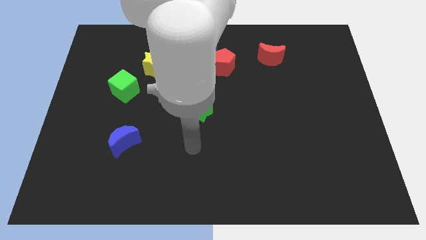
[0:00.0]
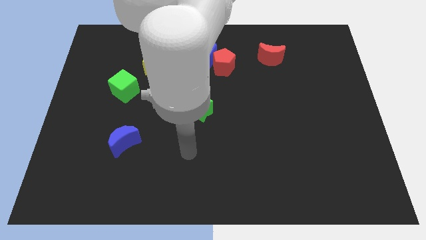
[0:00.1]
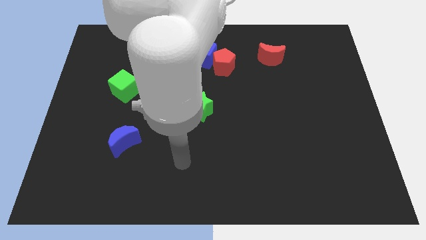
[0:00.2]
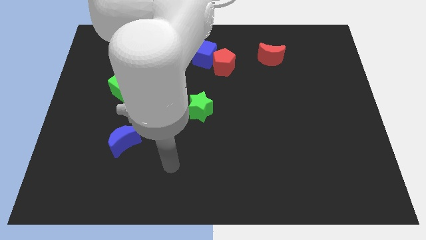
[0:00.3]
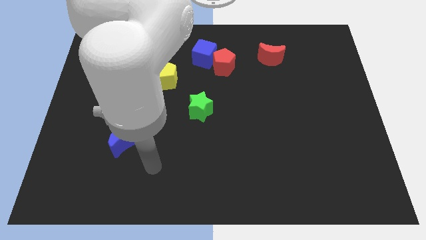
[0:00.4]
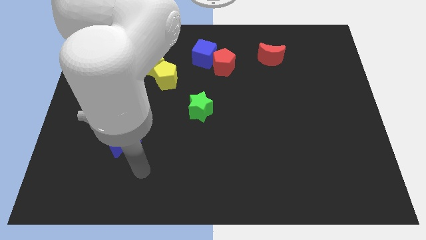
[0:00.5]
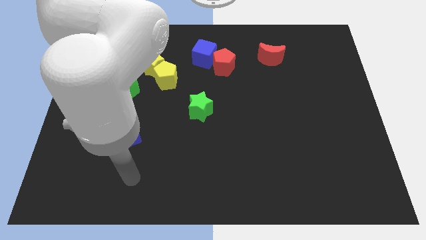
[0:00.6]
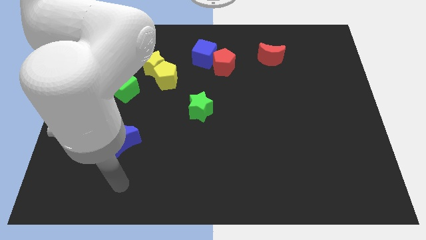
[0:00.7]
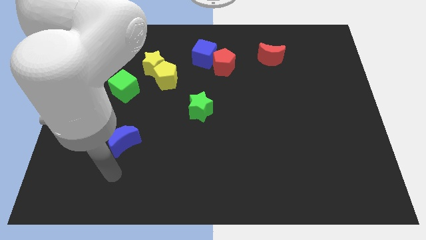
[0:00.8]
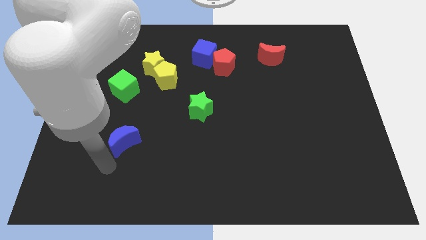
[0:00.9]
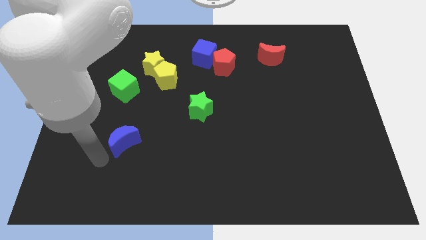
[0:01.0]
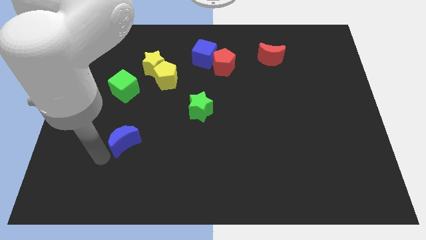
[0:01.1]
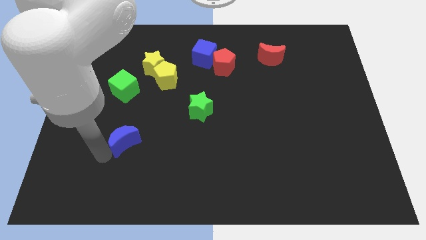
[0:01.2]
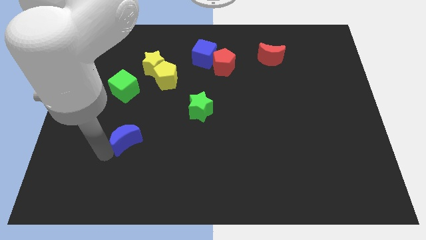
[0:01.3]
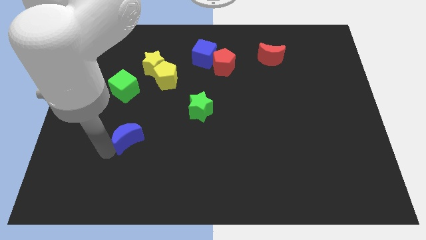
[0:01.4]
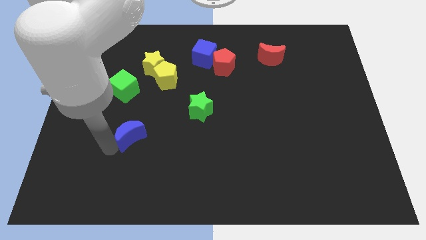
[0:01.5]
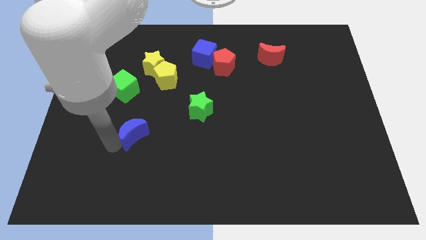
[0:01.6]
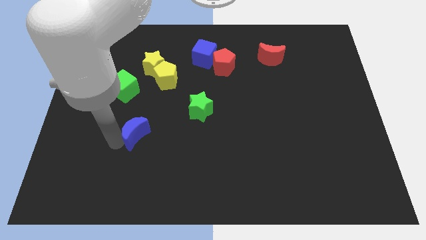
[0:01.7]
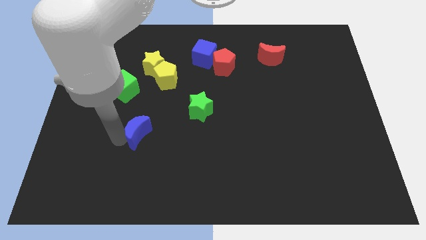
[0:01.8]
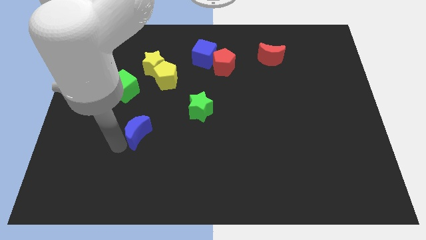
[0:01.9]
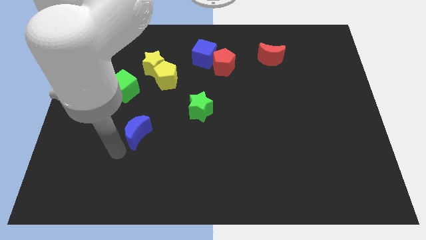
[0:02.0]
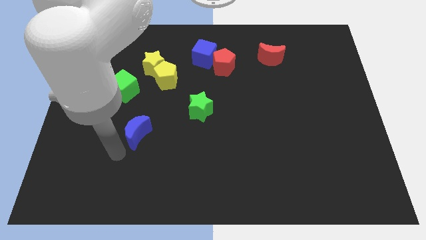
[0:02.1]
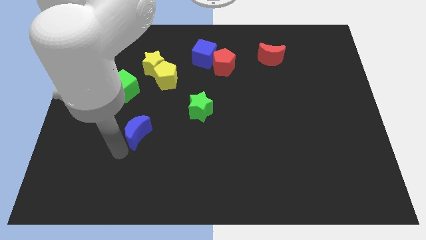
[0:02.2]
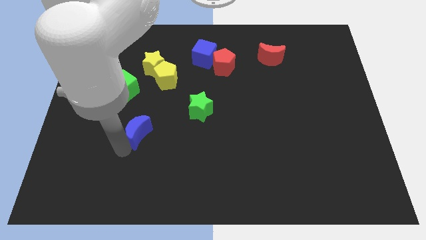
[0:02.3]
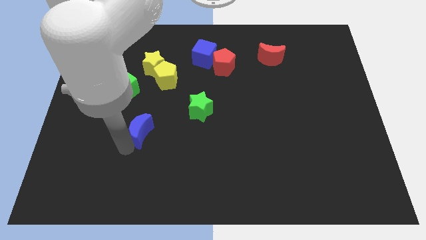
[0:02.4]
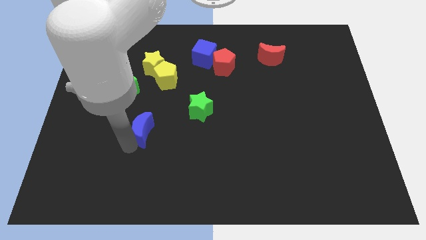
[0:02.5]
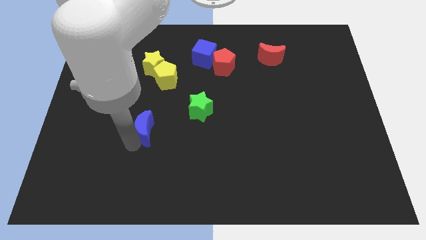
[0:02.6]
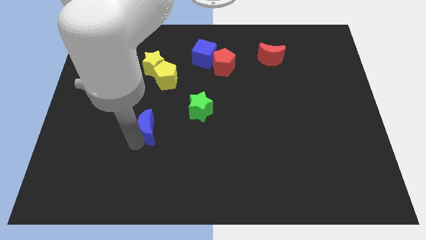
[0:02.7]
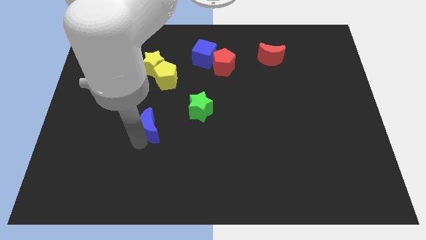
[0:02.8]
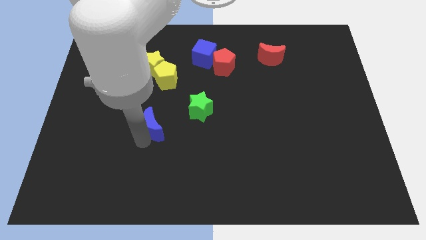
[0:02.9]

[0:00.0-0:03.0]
push the blue moon upwards and then right a bit

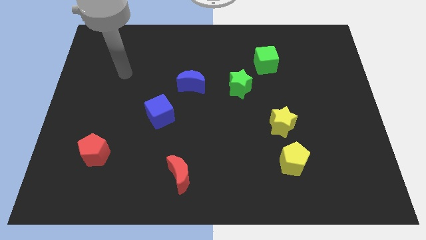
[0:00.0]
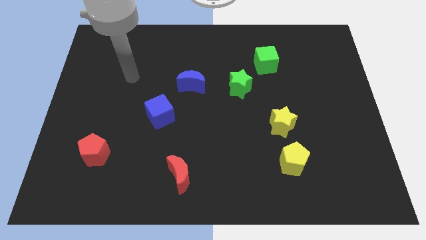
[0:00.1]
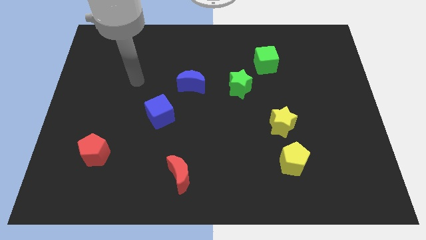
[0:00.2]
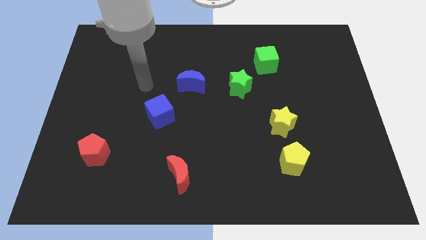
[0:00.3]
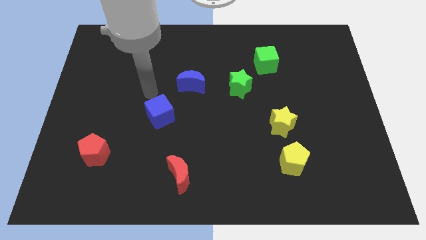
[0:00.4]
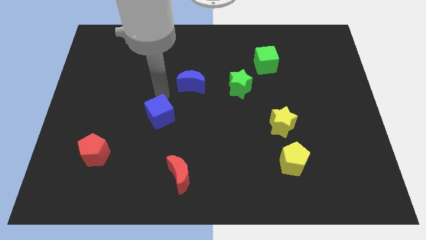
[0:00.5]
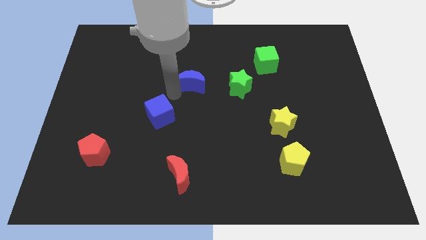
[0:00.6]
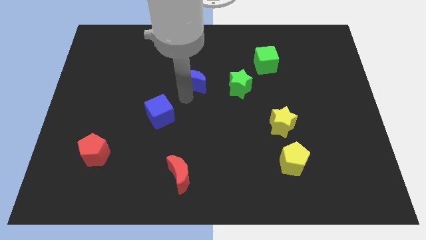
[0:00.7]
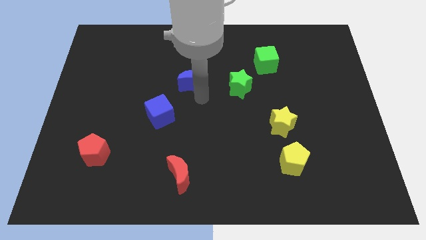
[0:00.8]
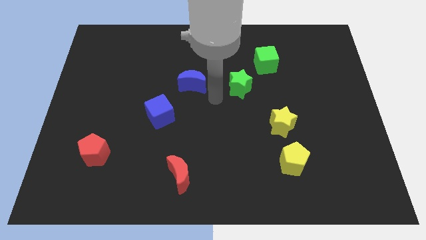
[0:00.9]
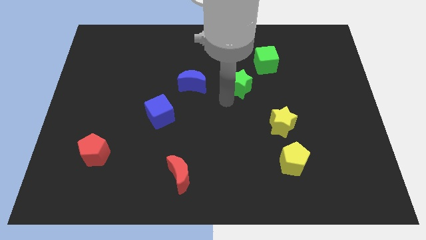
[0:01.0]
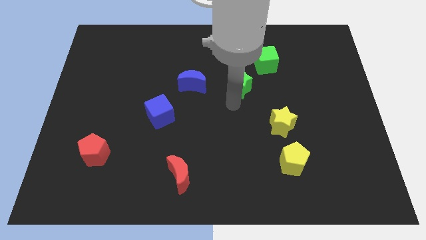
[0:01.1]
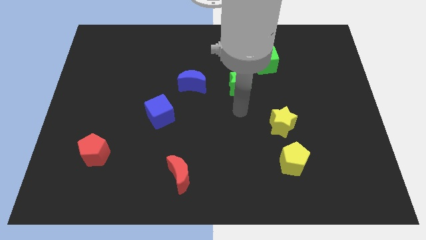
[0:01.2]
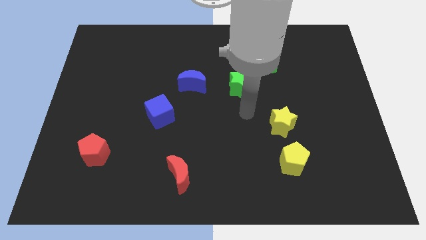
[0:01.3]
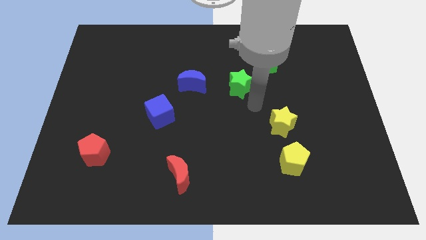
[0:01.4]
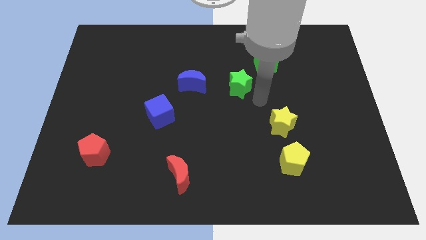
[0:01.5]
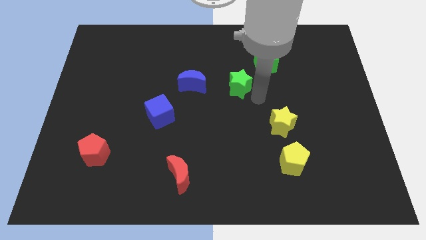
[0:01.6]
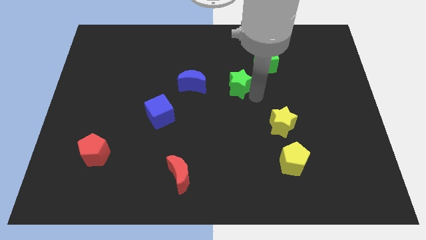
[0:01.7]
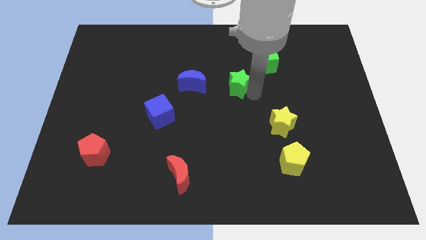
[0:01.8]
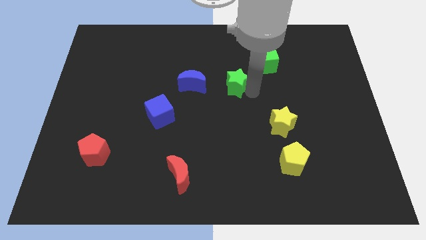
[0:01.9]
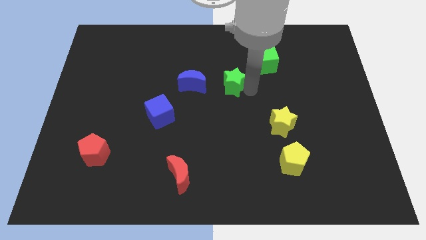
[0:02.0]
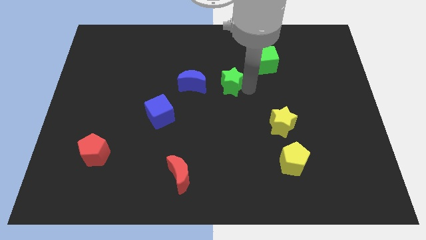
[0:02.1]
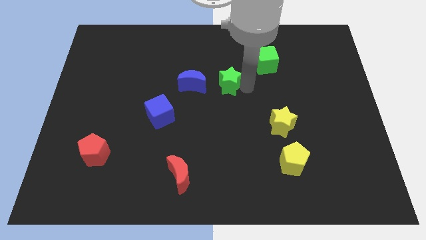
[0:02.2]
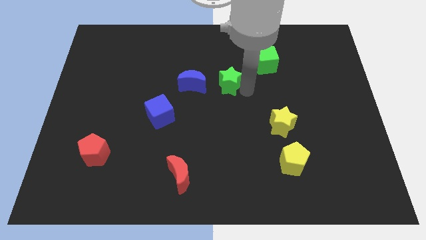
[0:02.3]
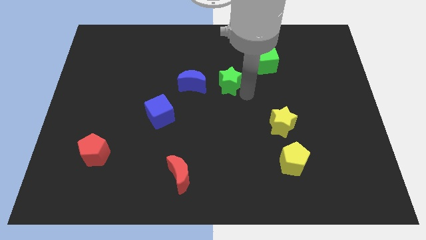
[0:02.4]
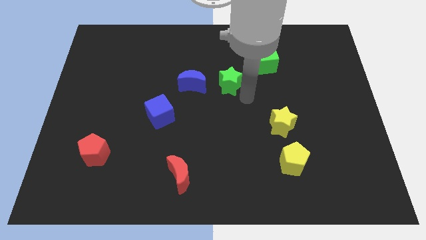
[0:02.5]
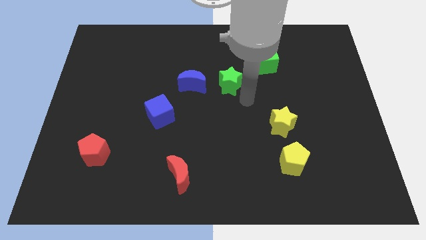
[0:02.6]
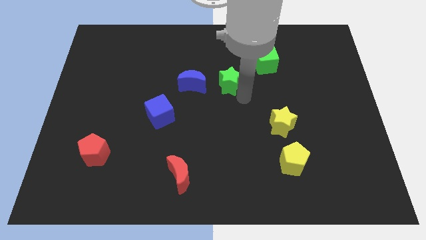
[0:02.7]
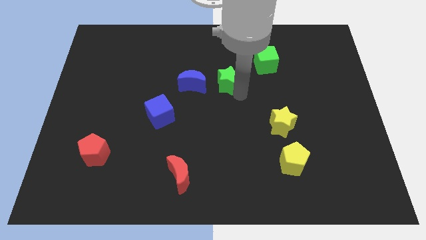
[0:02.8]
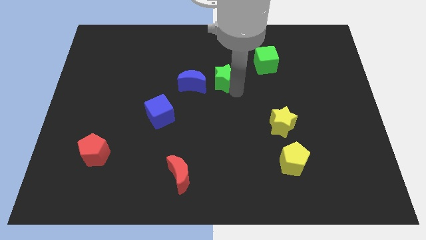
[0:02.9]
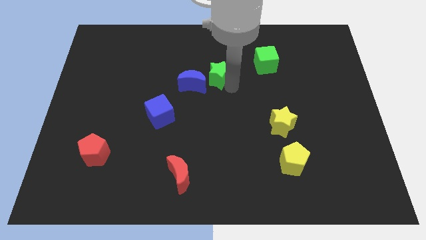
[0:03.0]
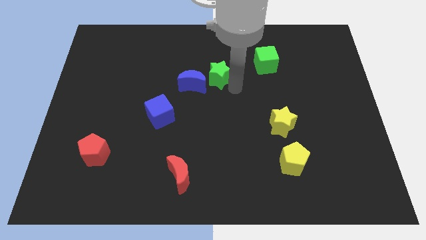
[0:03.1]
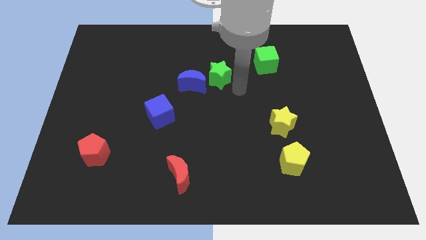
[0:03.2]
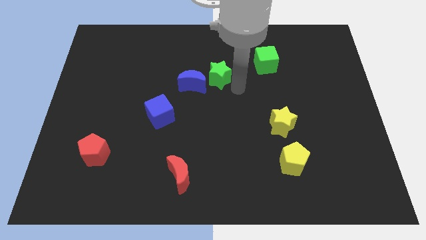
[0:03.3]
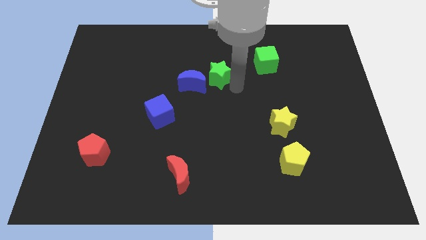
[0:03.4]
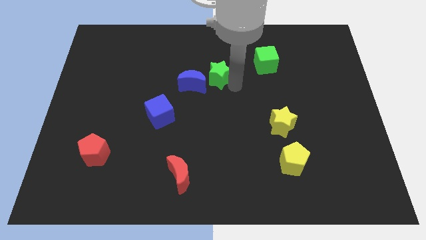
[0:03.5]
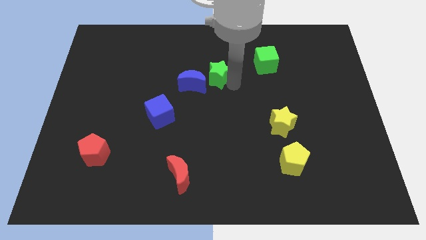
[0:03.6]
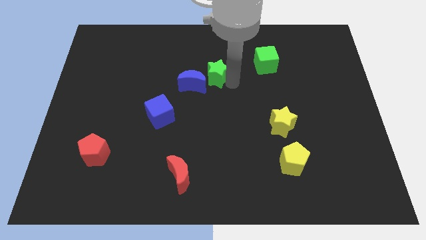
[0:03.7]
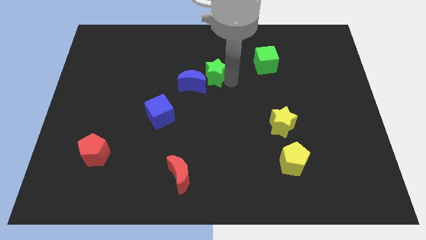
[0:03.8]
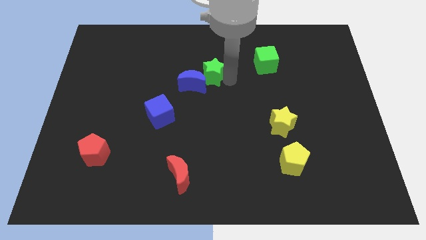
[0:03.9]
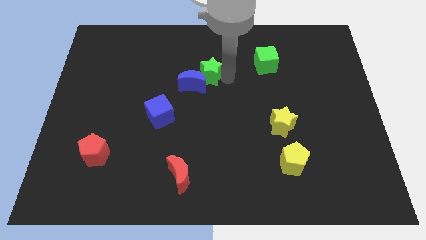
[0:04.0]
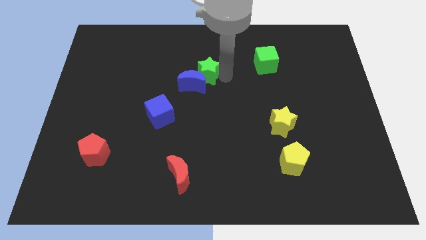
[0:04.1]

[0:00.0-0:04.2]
slightly move the green star left

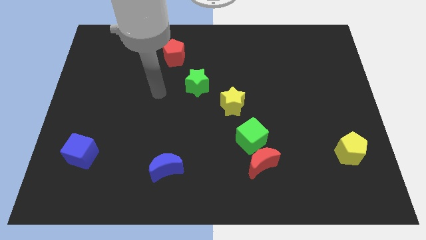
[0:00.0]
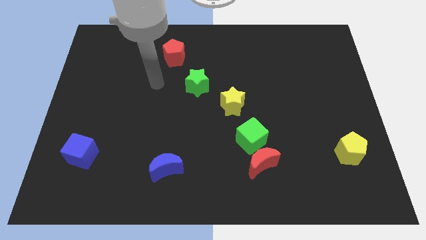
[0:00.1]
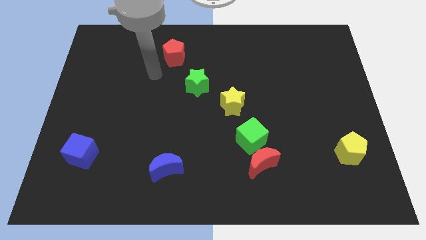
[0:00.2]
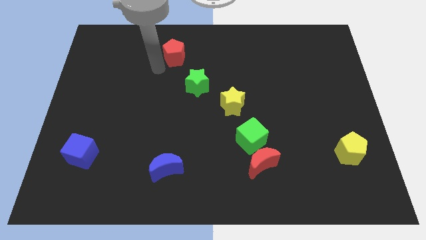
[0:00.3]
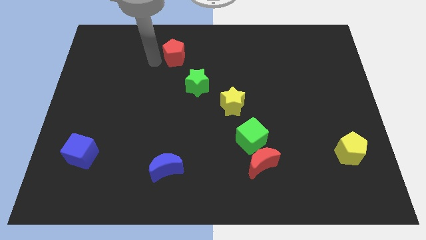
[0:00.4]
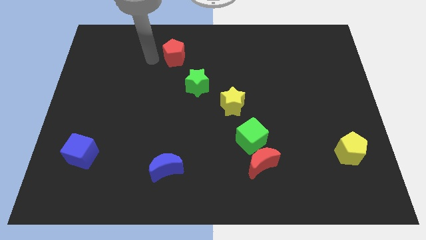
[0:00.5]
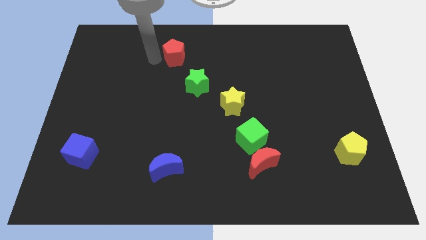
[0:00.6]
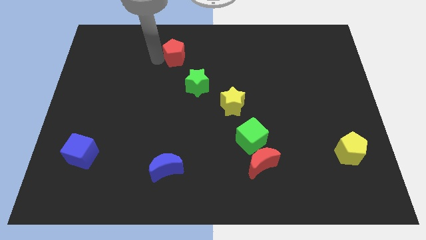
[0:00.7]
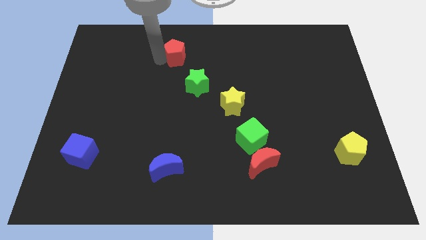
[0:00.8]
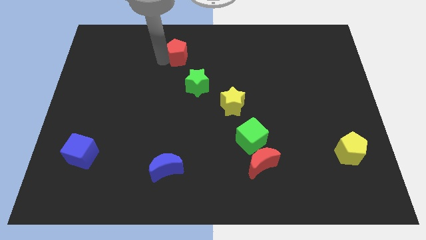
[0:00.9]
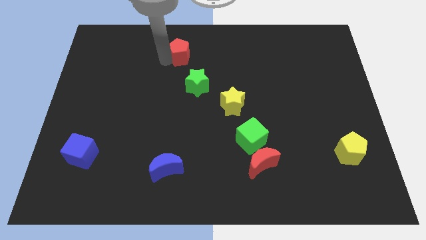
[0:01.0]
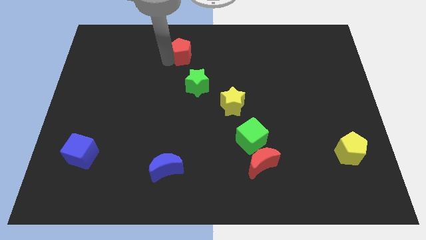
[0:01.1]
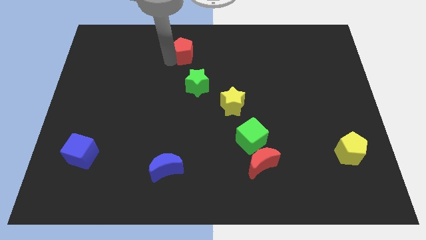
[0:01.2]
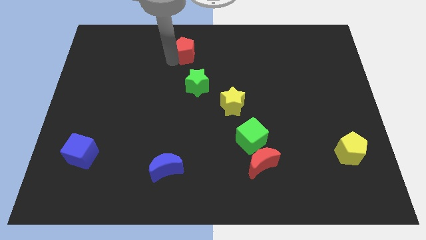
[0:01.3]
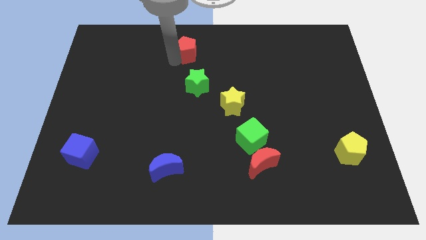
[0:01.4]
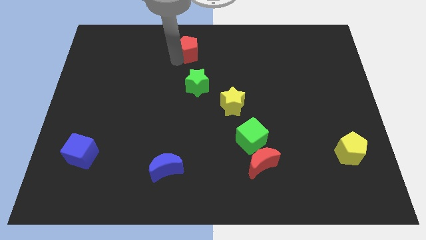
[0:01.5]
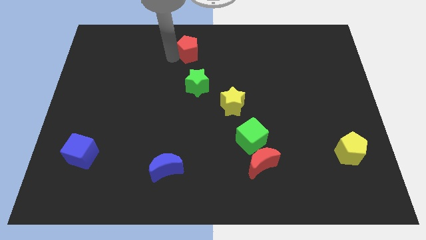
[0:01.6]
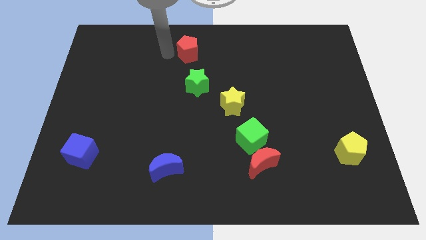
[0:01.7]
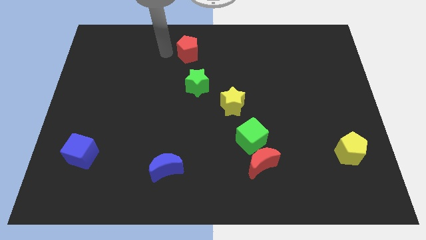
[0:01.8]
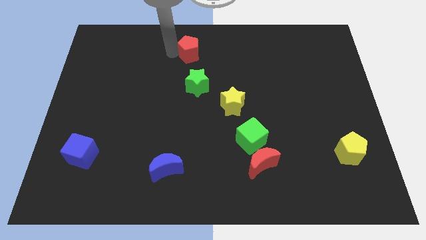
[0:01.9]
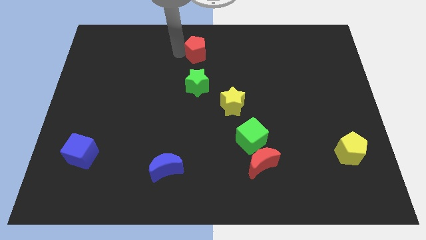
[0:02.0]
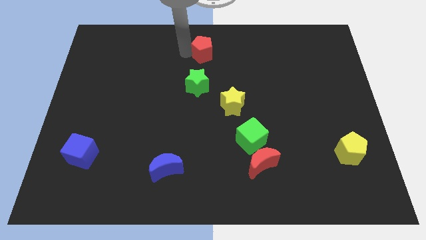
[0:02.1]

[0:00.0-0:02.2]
slide the red pentagon to the right slightly
